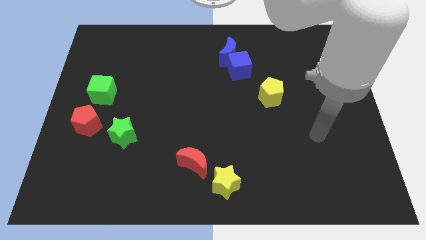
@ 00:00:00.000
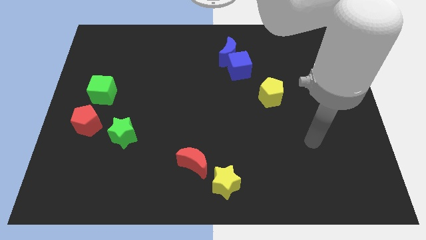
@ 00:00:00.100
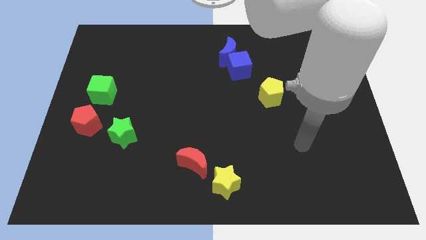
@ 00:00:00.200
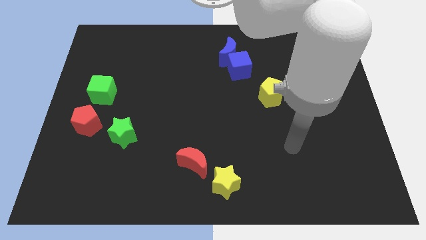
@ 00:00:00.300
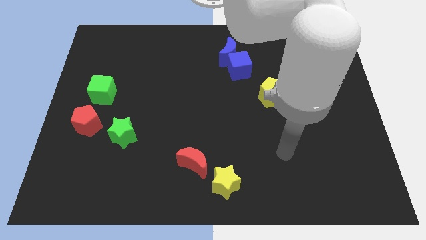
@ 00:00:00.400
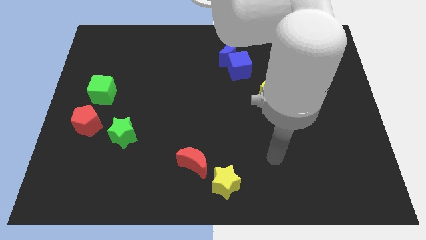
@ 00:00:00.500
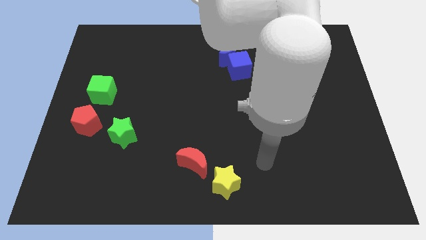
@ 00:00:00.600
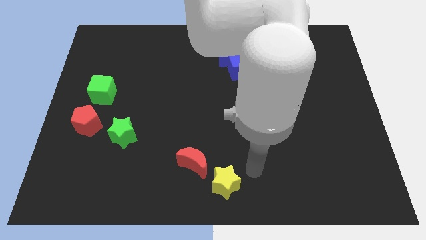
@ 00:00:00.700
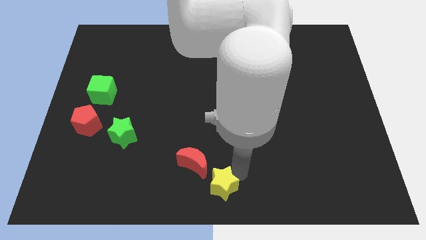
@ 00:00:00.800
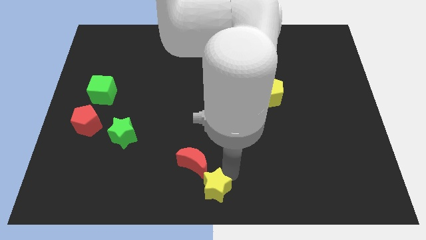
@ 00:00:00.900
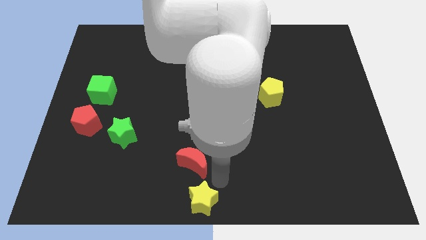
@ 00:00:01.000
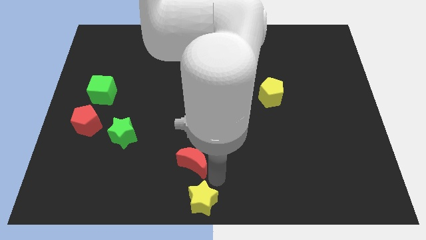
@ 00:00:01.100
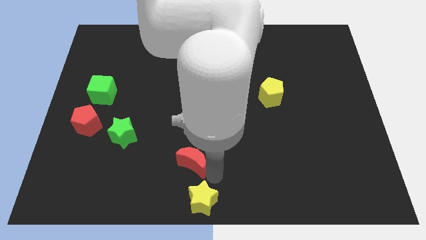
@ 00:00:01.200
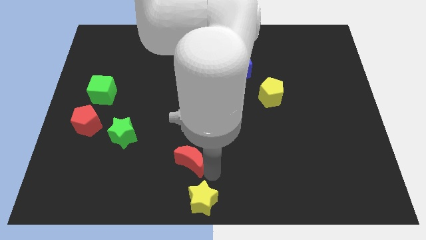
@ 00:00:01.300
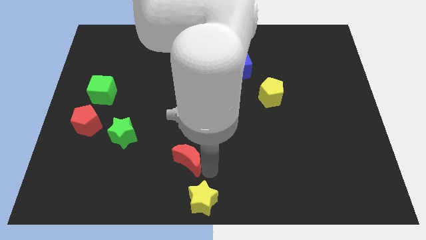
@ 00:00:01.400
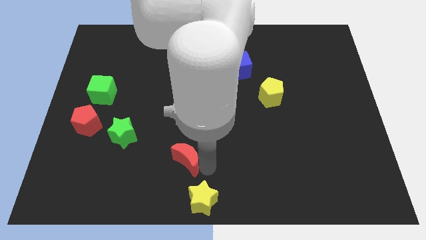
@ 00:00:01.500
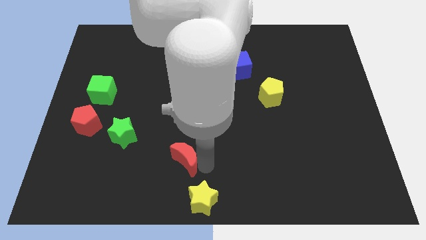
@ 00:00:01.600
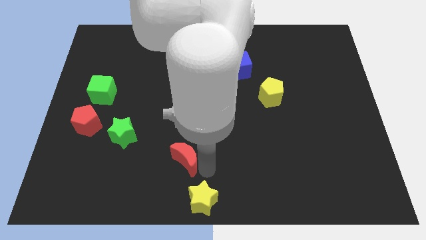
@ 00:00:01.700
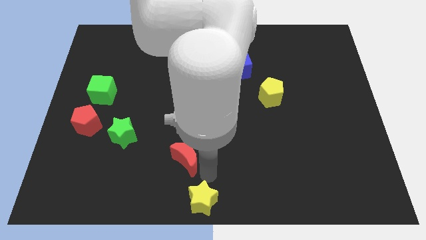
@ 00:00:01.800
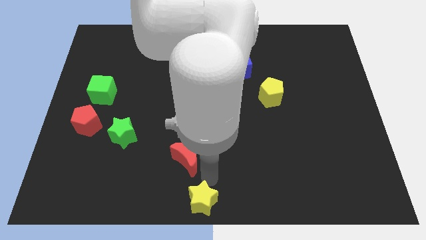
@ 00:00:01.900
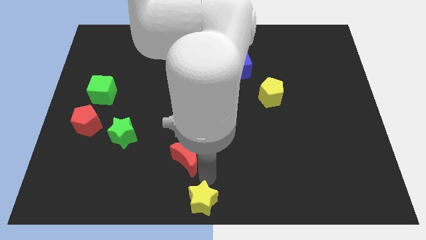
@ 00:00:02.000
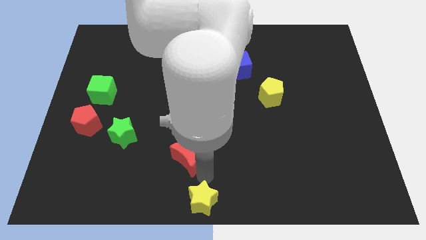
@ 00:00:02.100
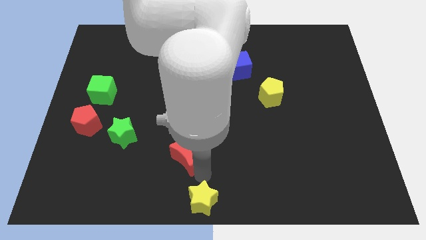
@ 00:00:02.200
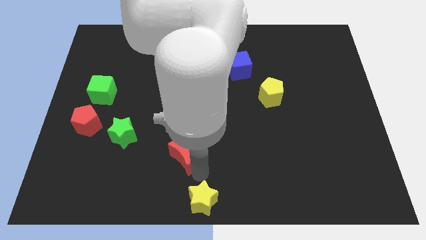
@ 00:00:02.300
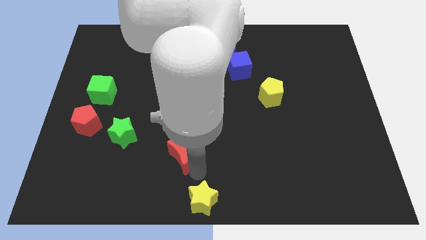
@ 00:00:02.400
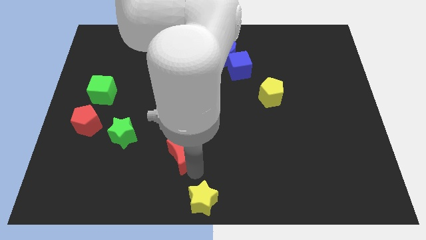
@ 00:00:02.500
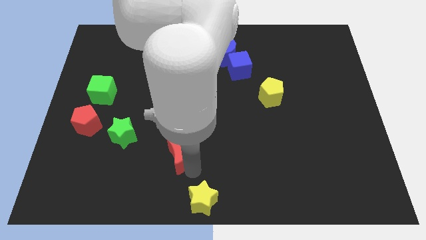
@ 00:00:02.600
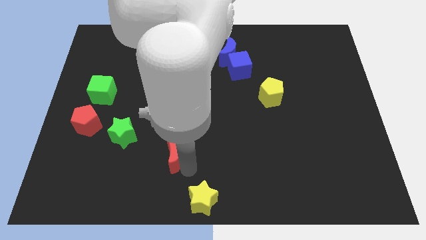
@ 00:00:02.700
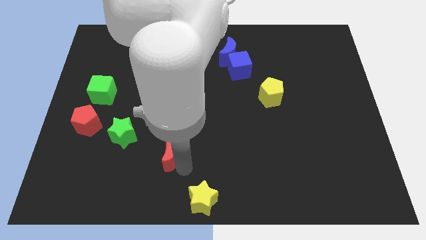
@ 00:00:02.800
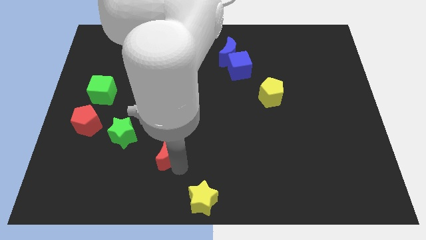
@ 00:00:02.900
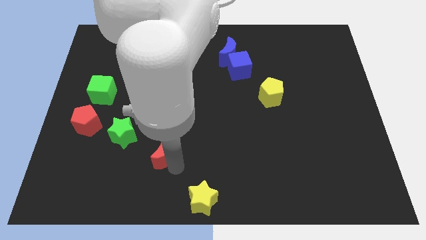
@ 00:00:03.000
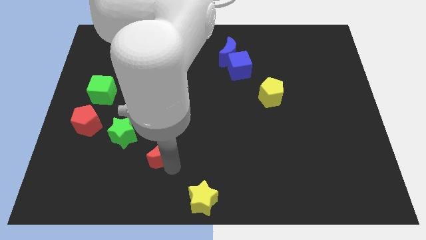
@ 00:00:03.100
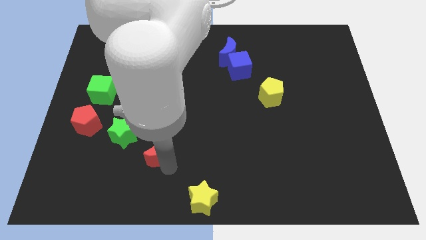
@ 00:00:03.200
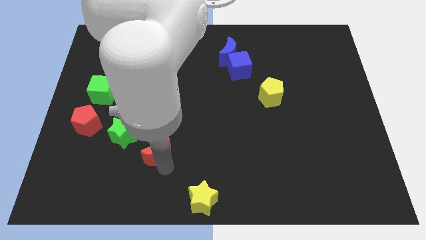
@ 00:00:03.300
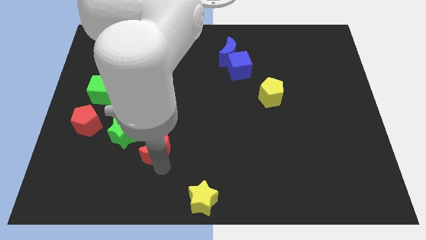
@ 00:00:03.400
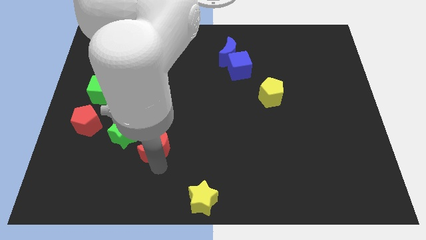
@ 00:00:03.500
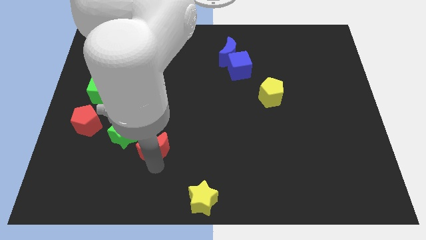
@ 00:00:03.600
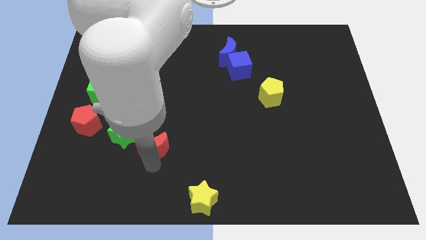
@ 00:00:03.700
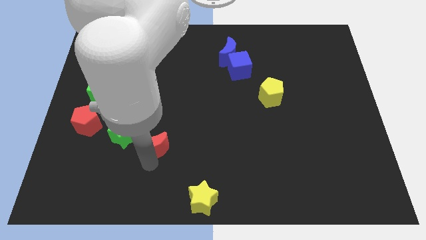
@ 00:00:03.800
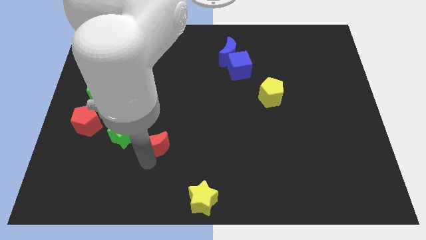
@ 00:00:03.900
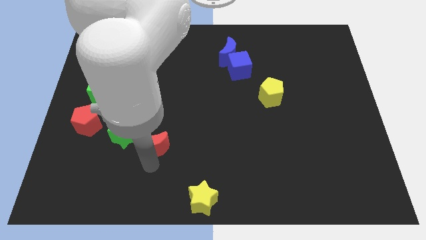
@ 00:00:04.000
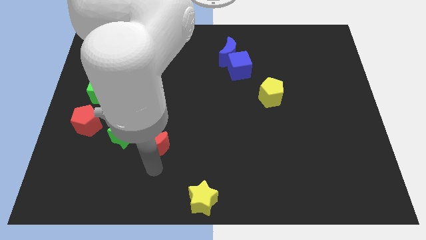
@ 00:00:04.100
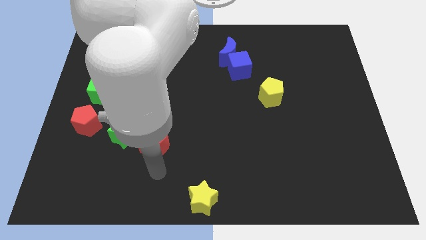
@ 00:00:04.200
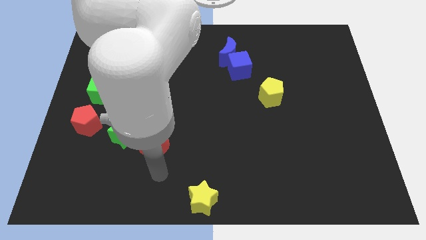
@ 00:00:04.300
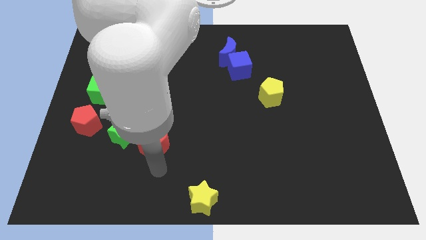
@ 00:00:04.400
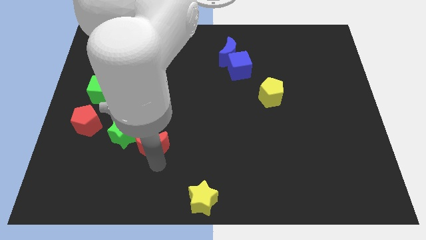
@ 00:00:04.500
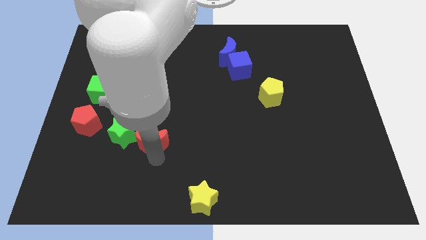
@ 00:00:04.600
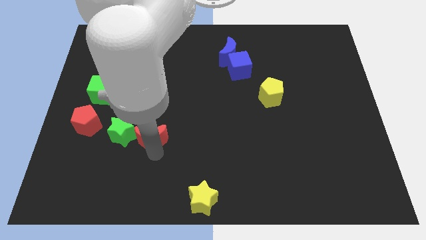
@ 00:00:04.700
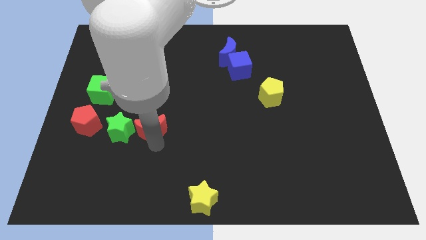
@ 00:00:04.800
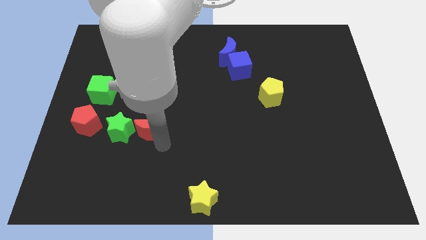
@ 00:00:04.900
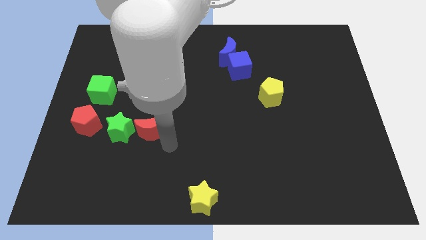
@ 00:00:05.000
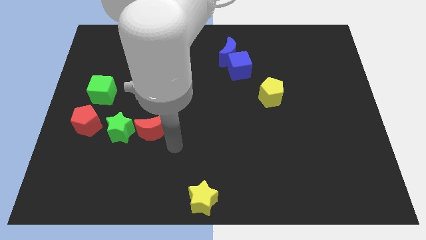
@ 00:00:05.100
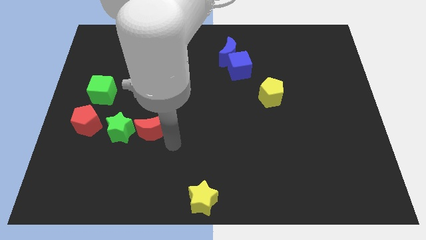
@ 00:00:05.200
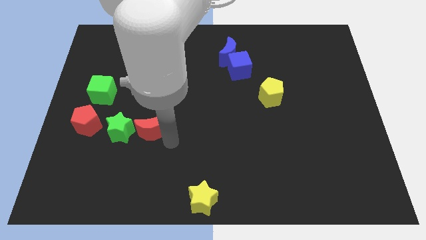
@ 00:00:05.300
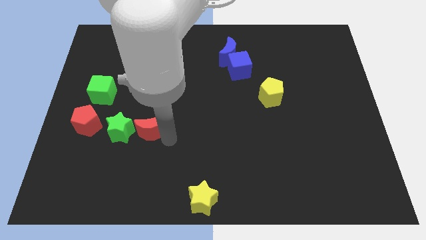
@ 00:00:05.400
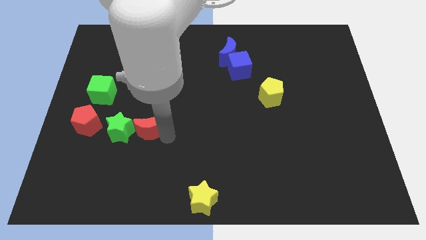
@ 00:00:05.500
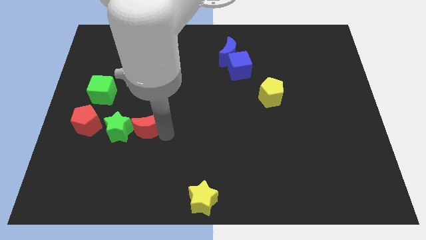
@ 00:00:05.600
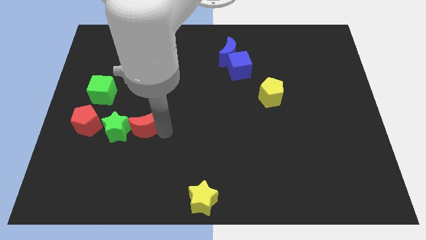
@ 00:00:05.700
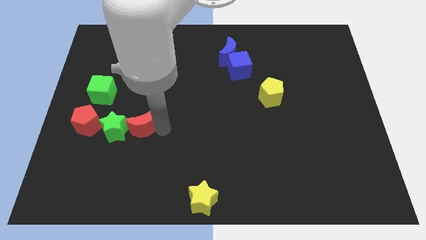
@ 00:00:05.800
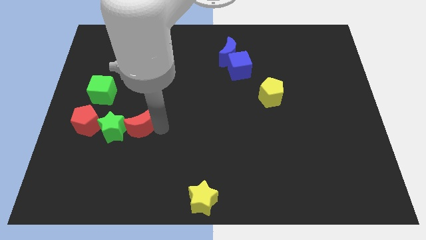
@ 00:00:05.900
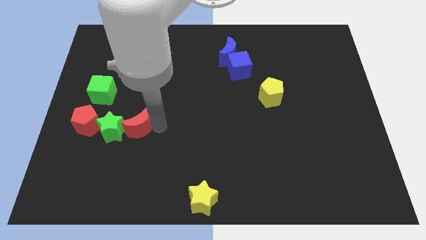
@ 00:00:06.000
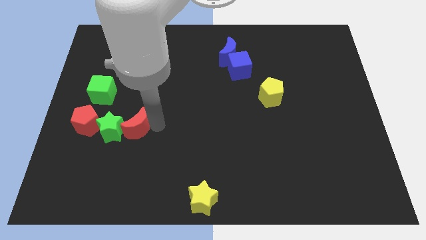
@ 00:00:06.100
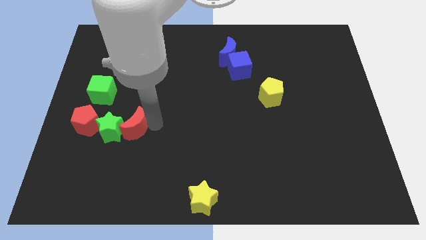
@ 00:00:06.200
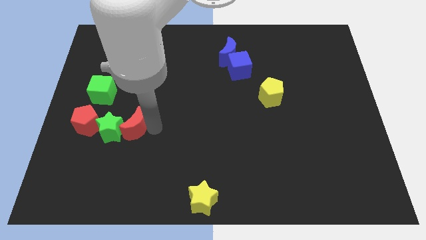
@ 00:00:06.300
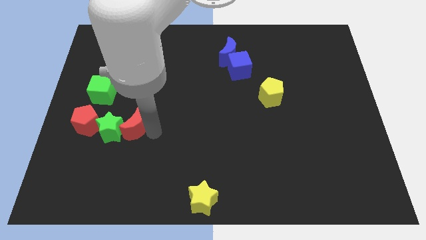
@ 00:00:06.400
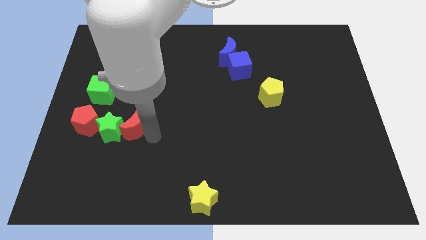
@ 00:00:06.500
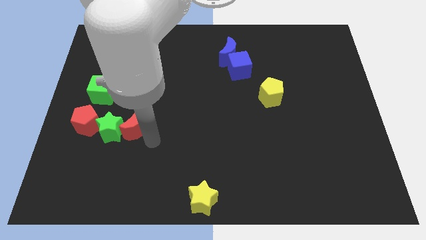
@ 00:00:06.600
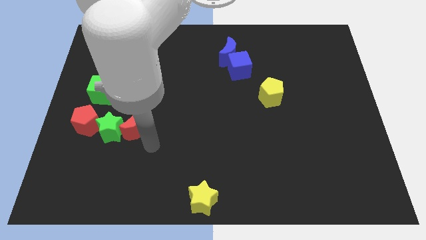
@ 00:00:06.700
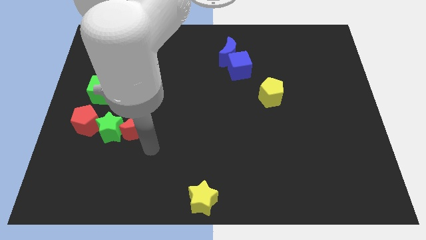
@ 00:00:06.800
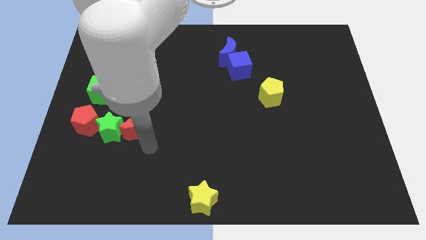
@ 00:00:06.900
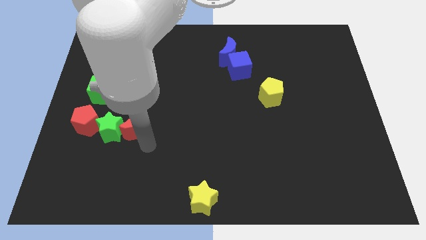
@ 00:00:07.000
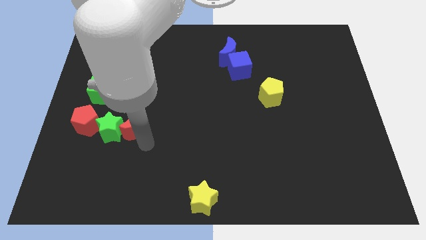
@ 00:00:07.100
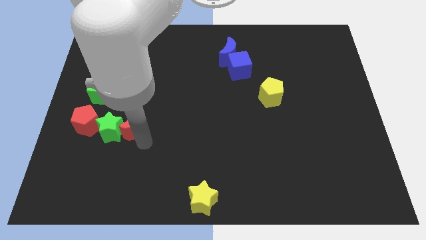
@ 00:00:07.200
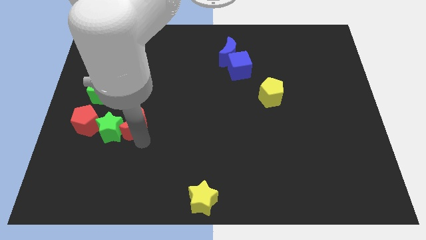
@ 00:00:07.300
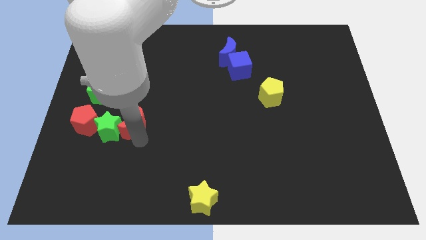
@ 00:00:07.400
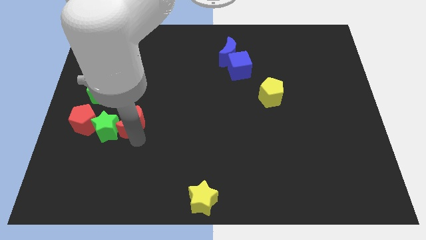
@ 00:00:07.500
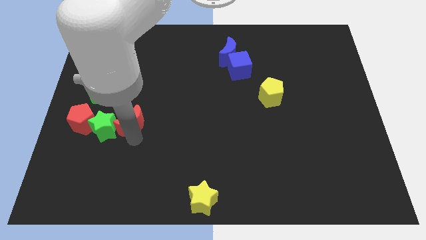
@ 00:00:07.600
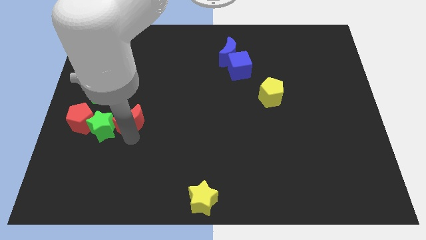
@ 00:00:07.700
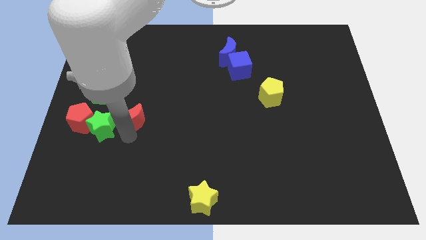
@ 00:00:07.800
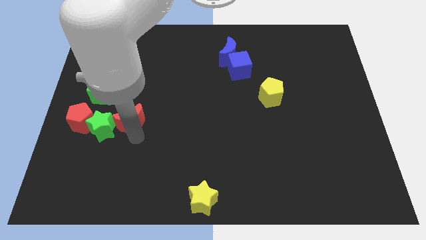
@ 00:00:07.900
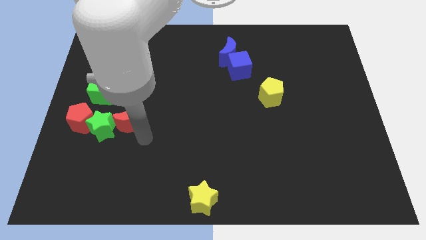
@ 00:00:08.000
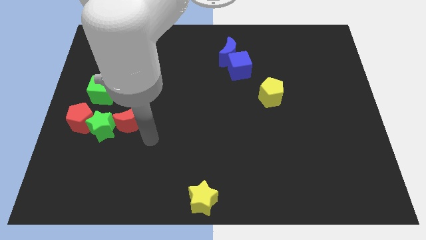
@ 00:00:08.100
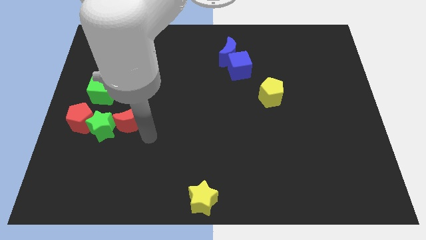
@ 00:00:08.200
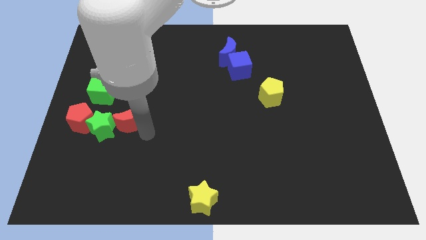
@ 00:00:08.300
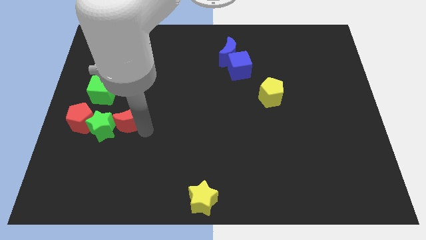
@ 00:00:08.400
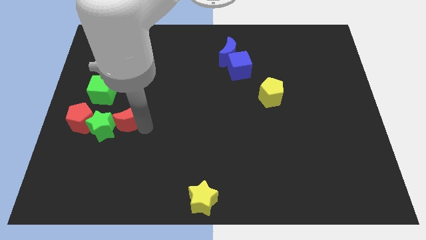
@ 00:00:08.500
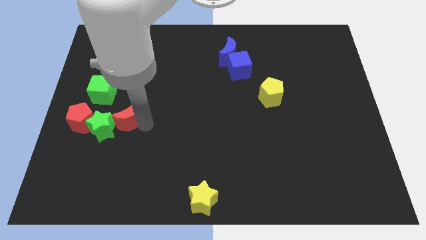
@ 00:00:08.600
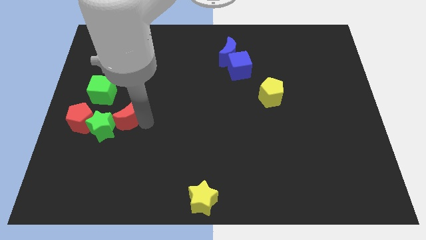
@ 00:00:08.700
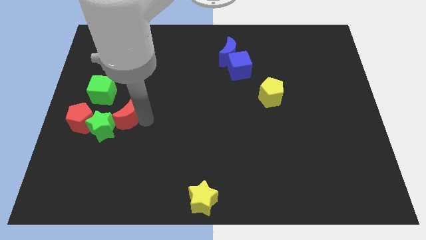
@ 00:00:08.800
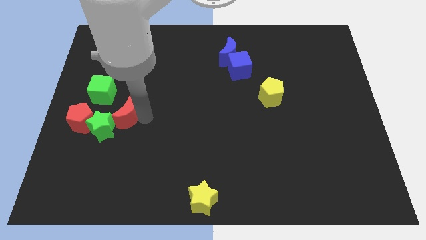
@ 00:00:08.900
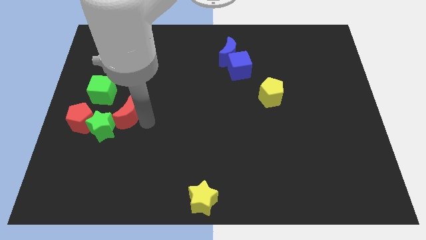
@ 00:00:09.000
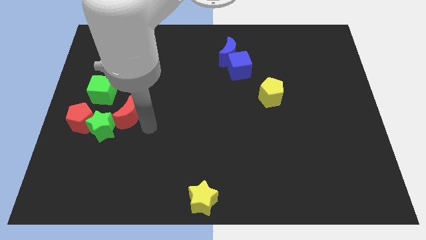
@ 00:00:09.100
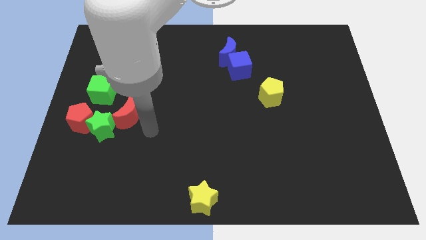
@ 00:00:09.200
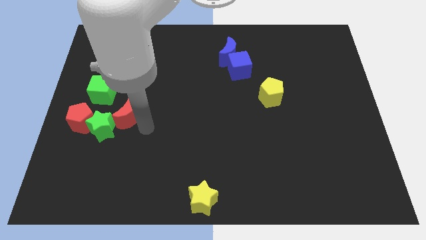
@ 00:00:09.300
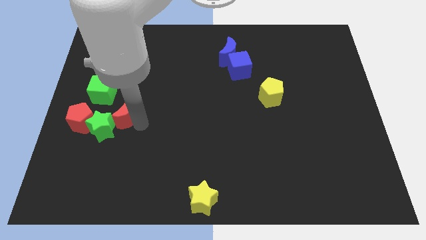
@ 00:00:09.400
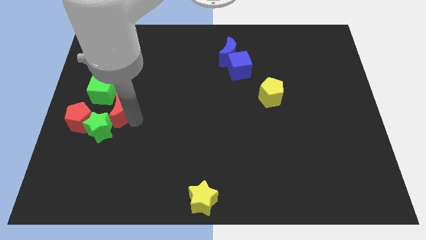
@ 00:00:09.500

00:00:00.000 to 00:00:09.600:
put the red moon to the top right side of the red pentagon
